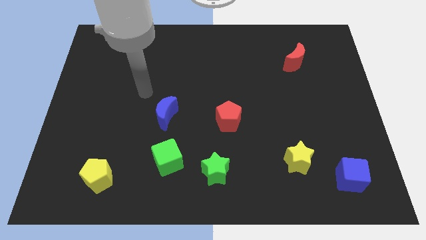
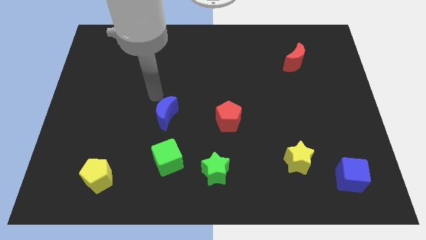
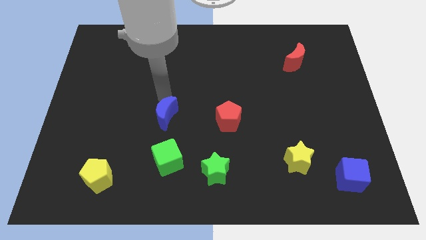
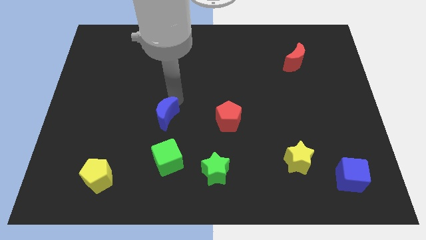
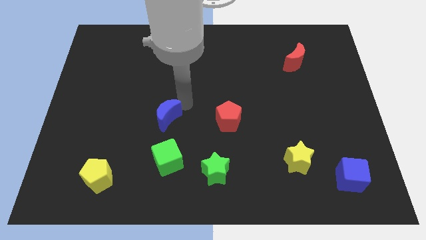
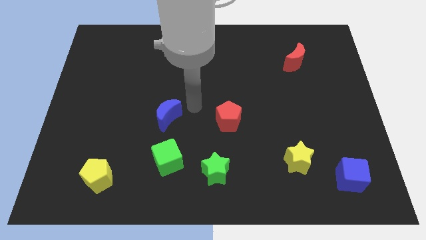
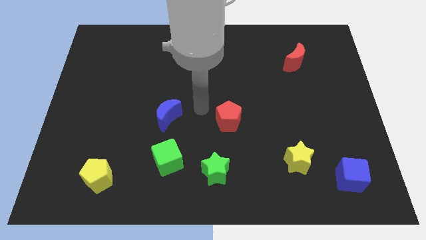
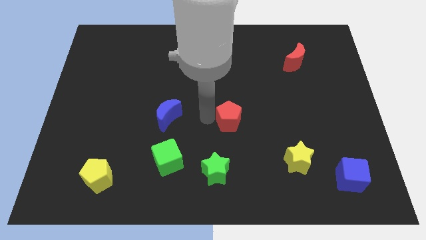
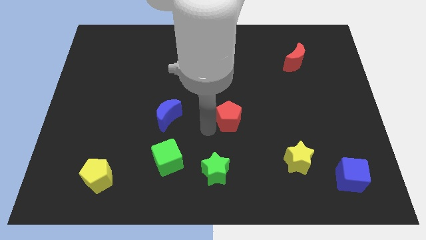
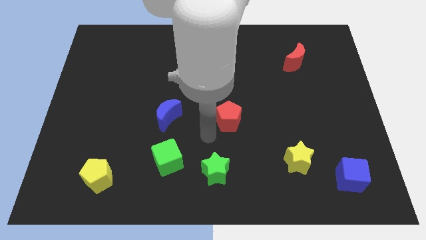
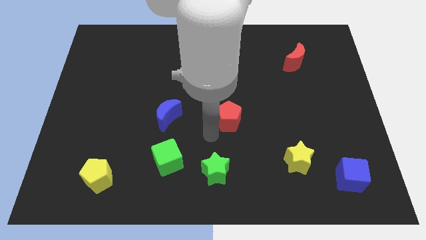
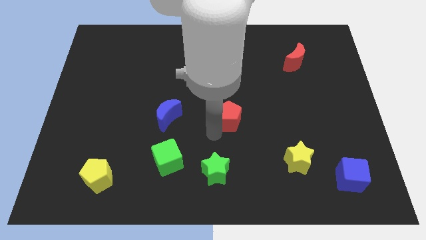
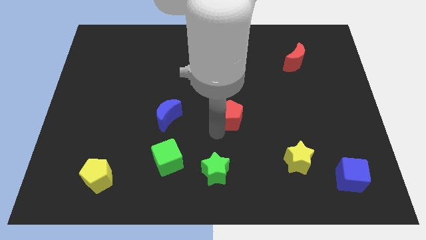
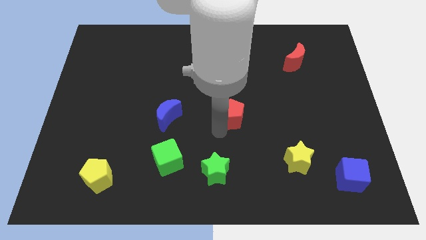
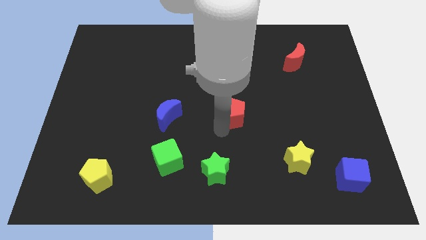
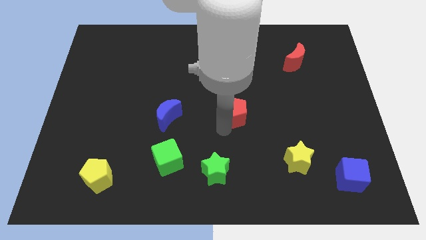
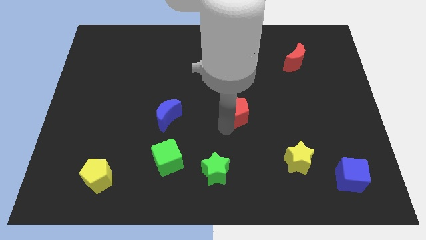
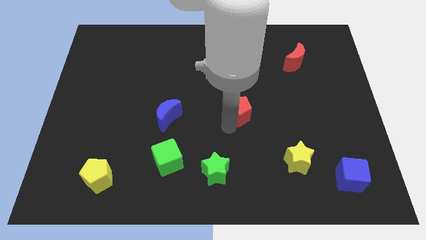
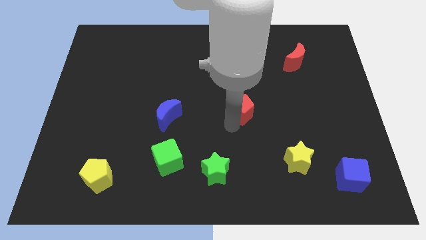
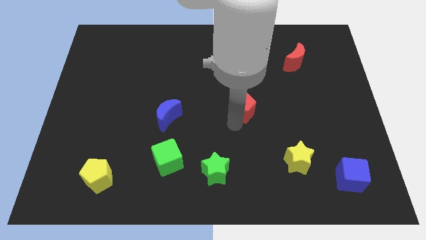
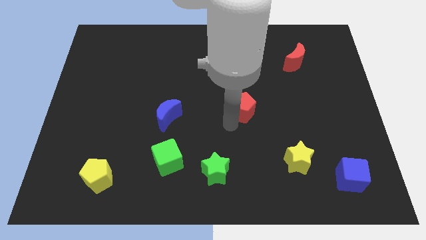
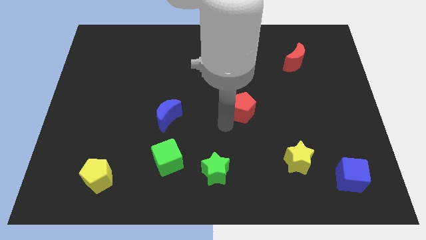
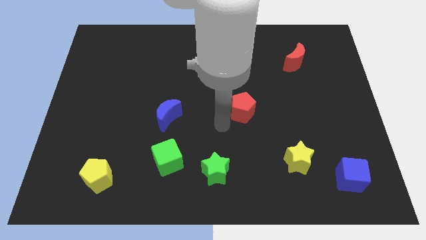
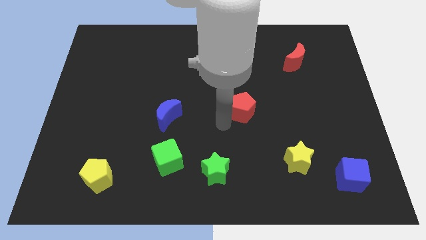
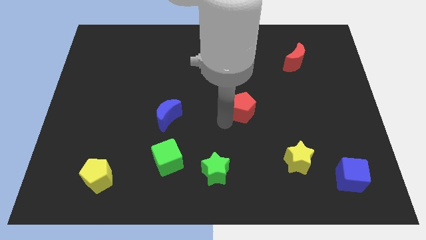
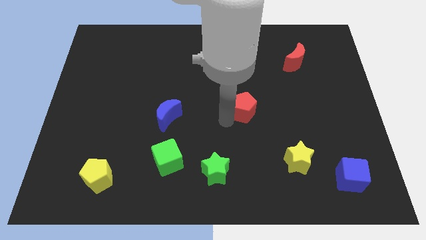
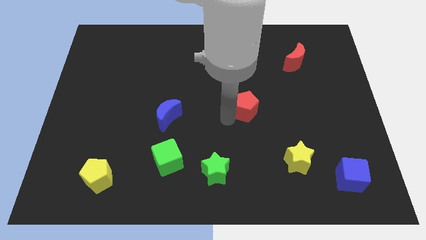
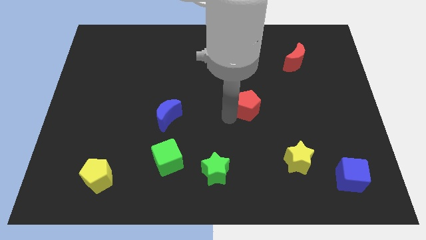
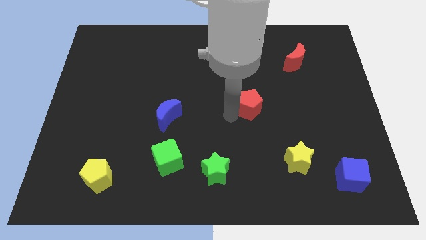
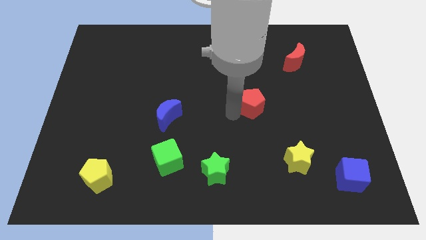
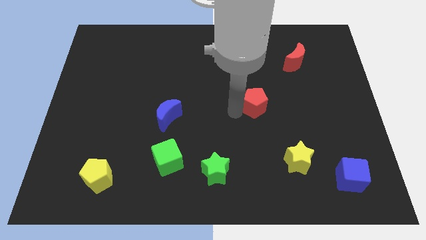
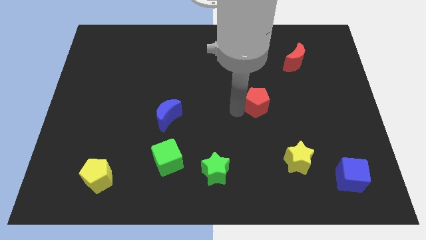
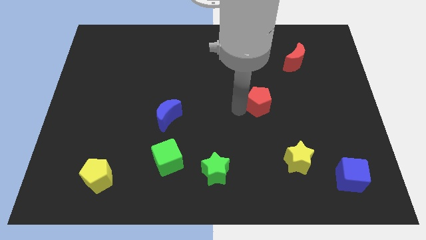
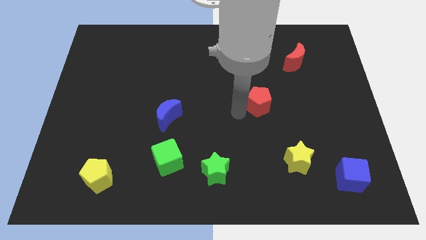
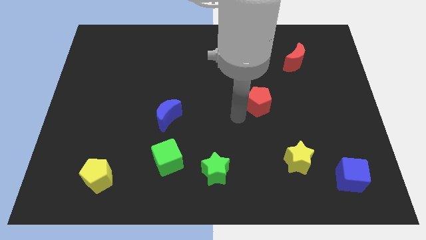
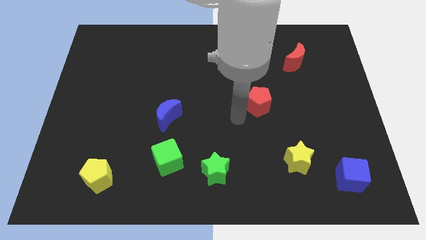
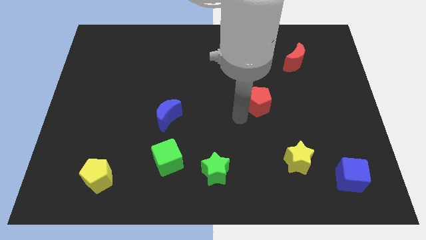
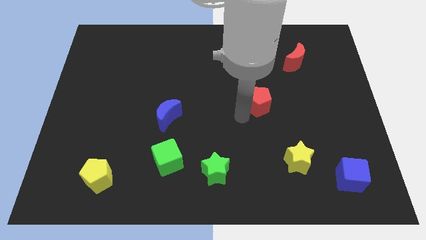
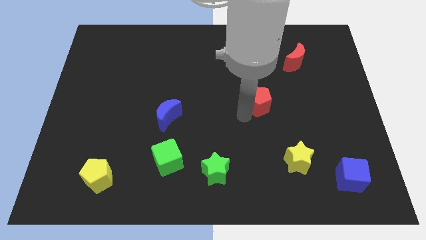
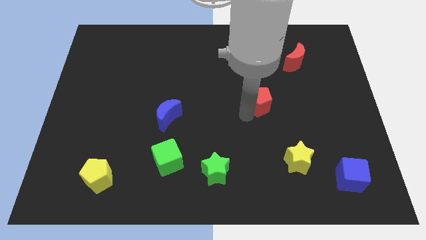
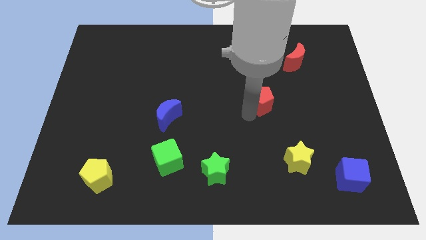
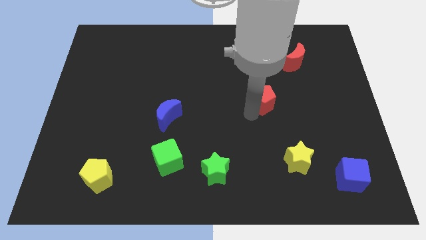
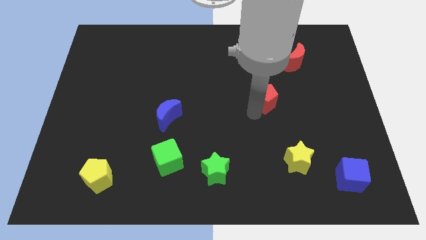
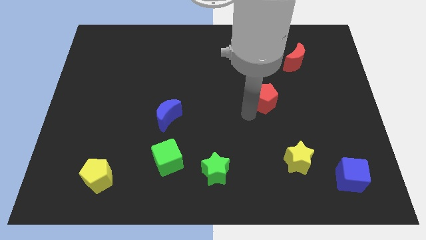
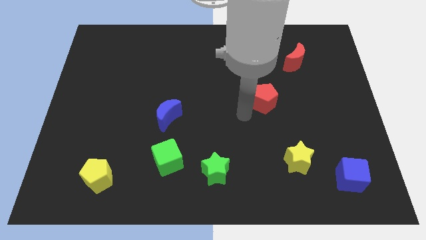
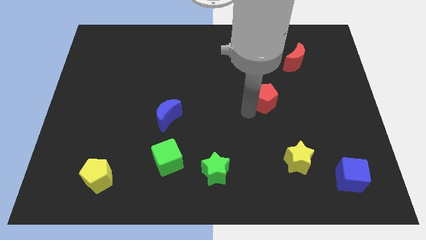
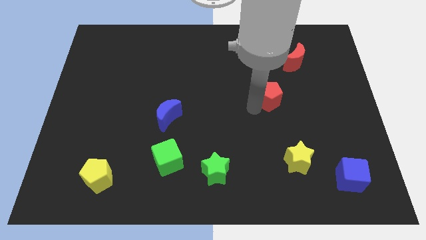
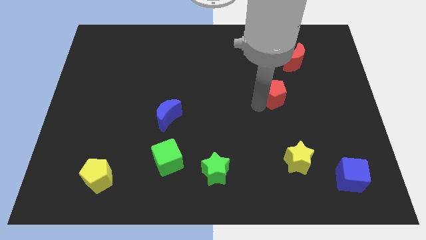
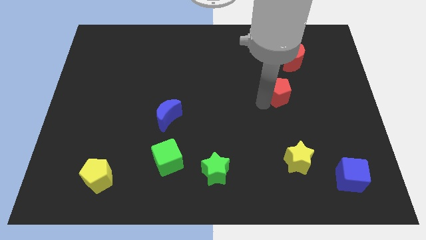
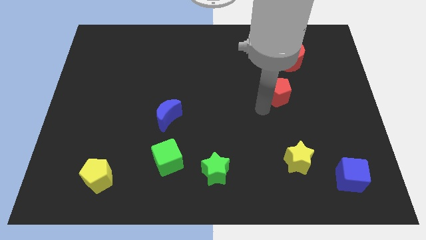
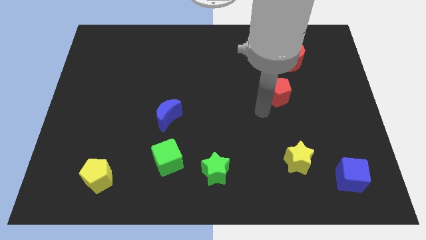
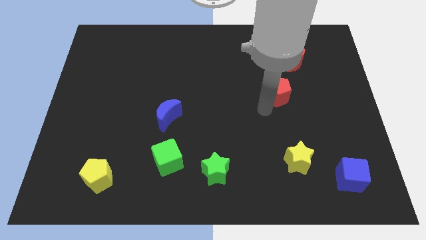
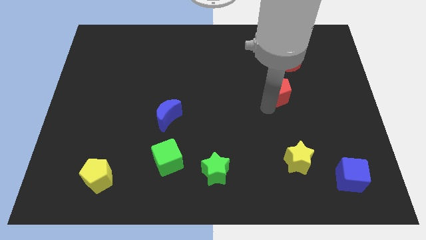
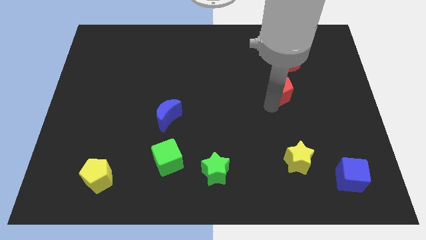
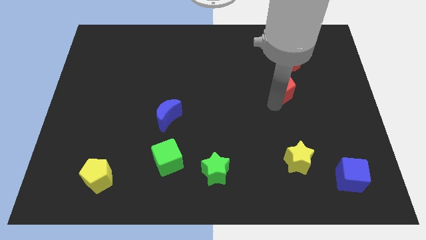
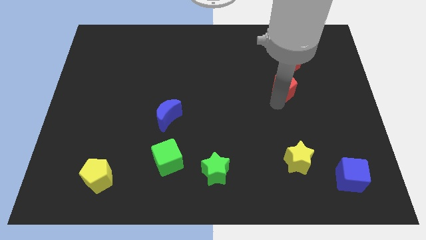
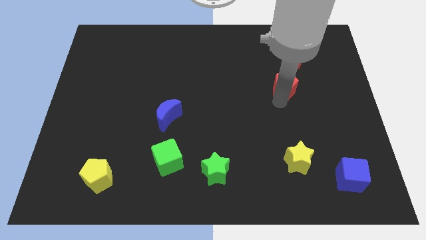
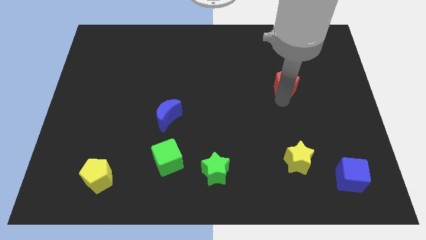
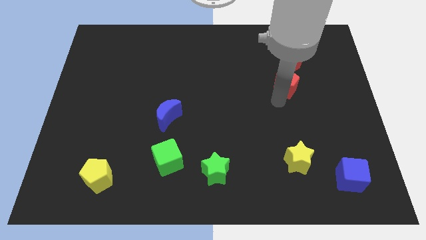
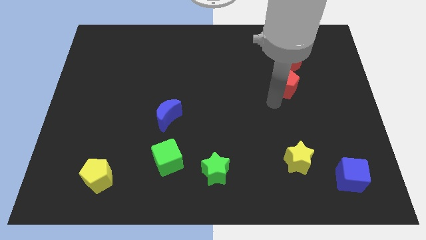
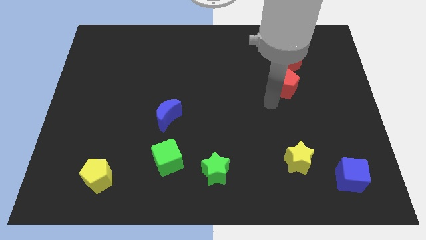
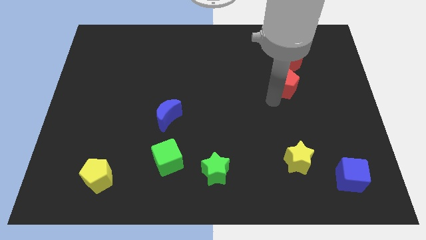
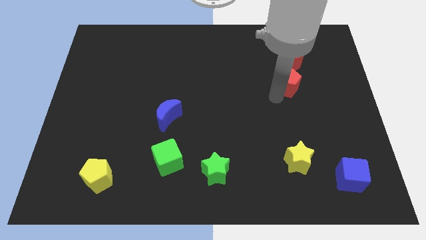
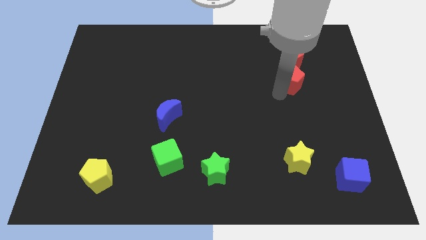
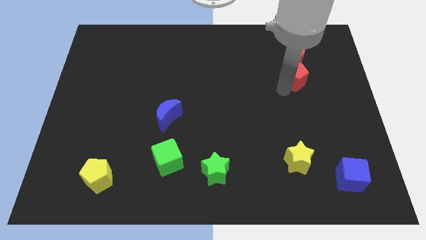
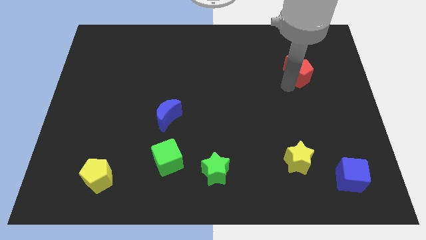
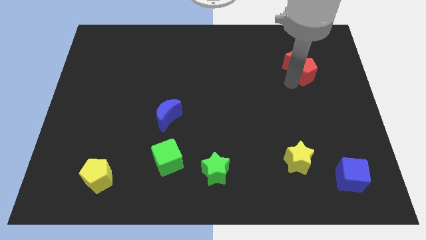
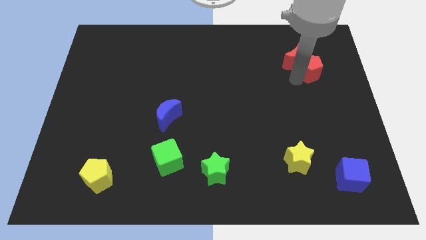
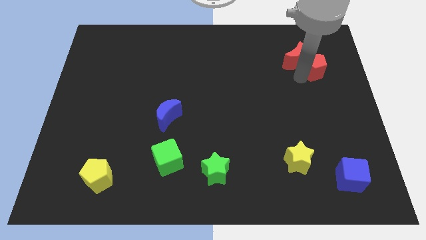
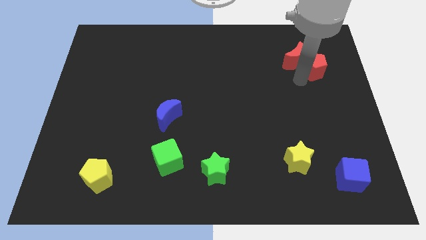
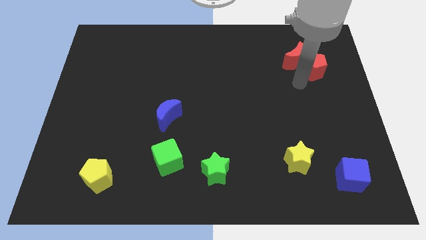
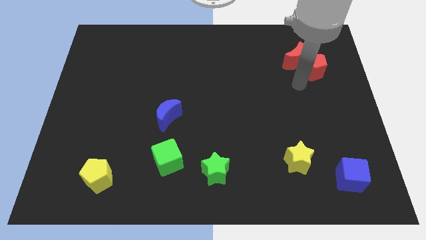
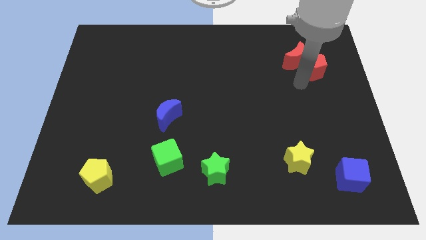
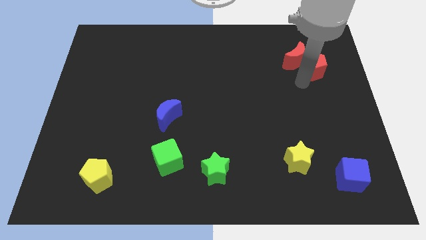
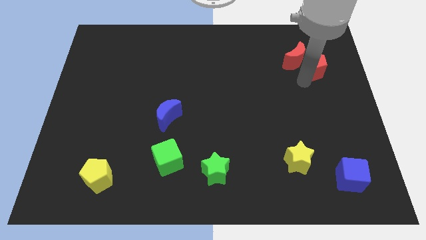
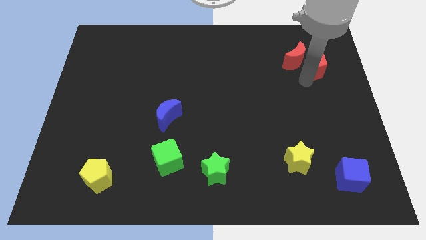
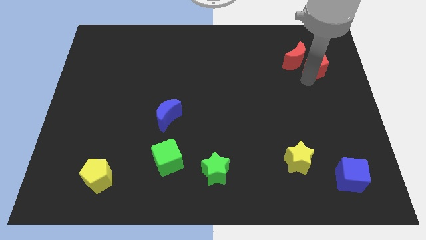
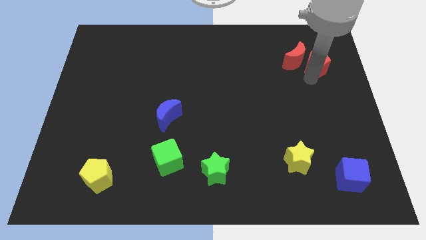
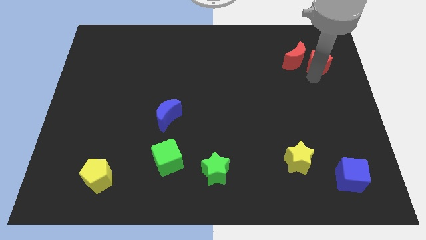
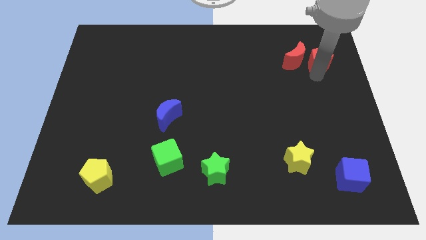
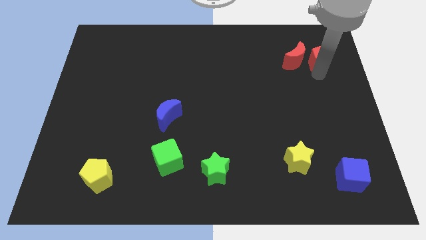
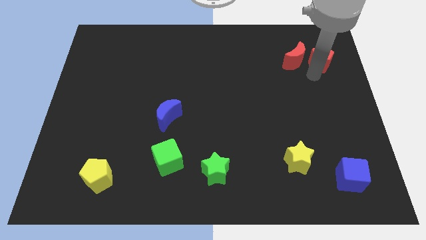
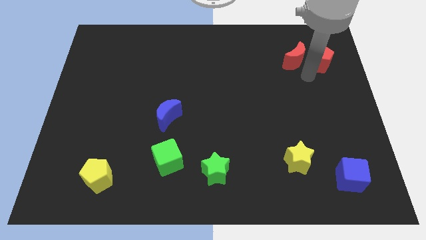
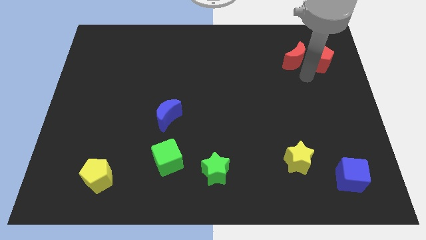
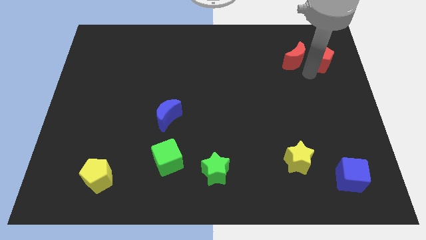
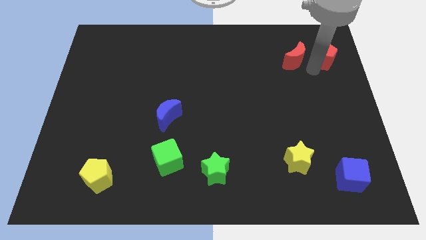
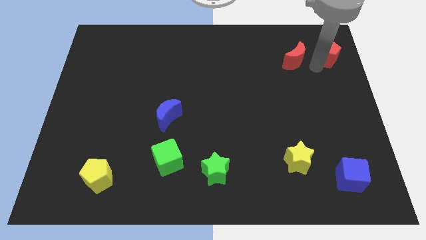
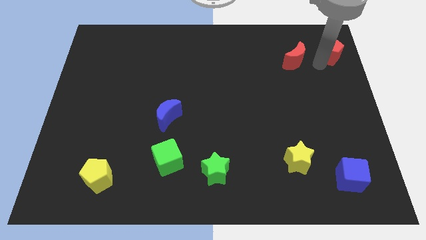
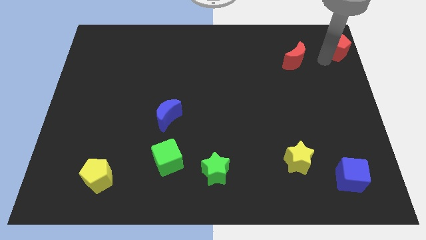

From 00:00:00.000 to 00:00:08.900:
put the red pentagon to the upper right corner
